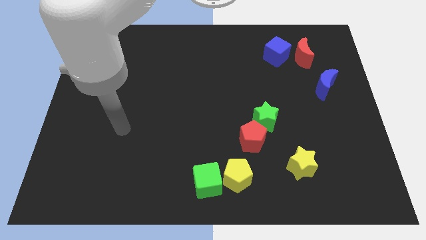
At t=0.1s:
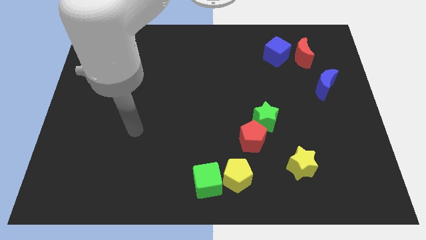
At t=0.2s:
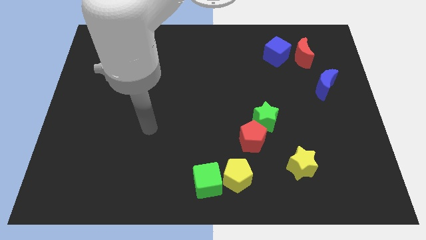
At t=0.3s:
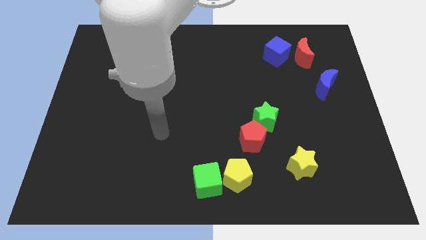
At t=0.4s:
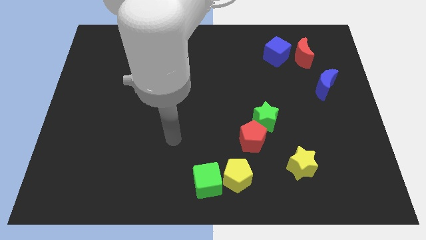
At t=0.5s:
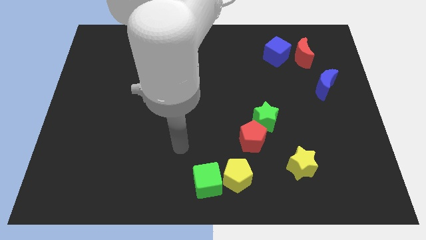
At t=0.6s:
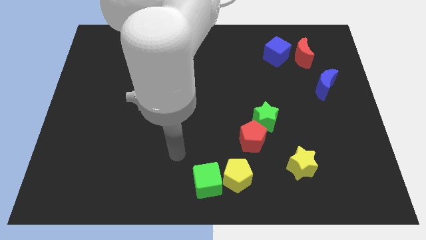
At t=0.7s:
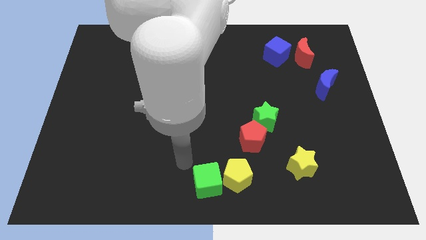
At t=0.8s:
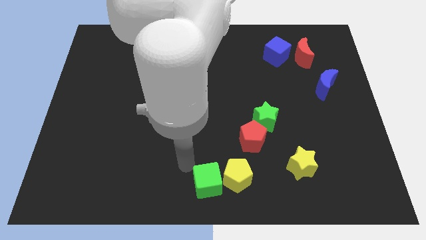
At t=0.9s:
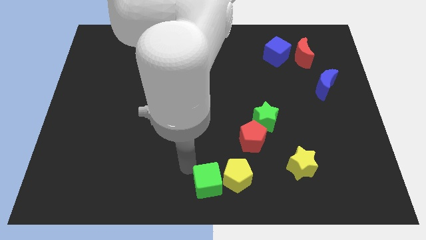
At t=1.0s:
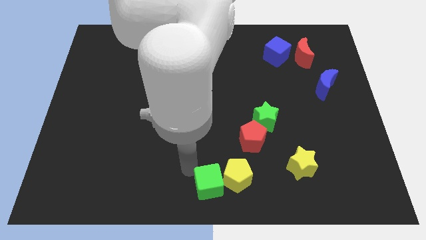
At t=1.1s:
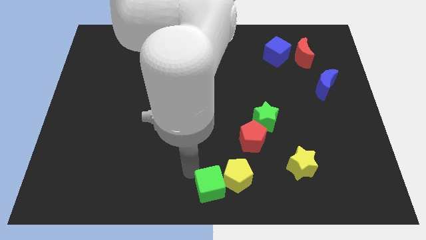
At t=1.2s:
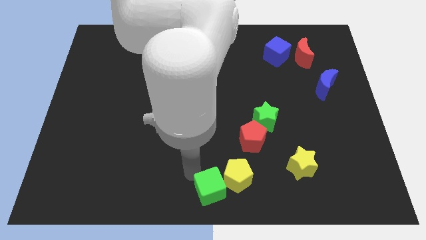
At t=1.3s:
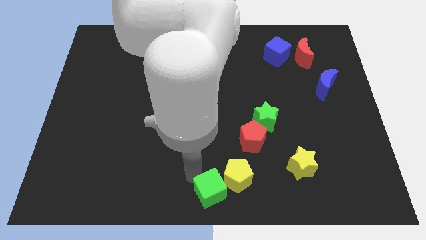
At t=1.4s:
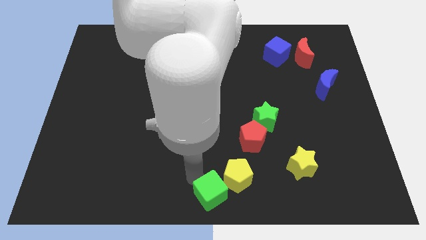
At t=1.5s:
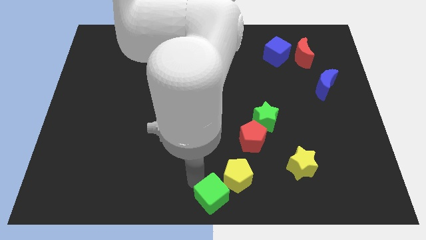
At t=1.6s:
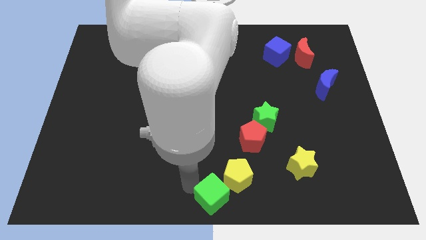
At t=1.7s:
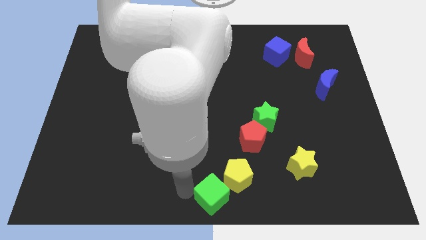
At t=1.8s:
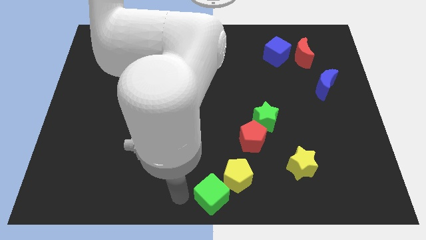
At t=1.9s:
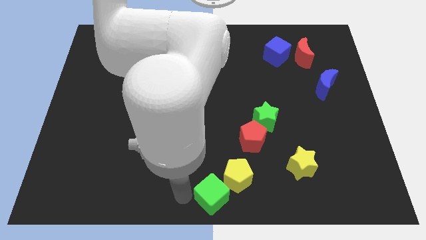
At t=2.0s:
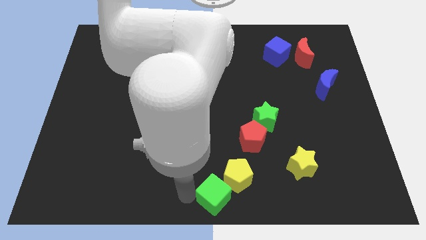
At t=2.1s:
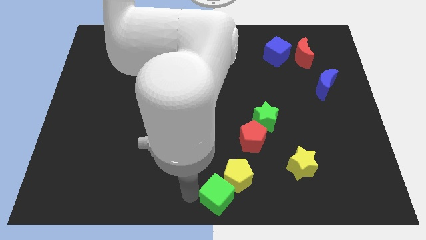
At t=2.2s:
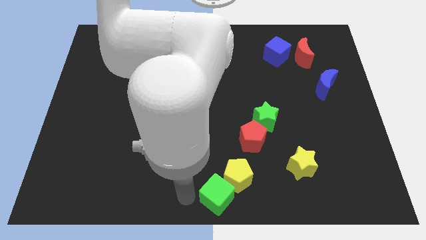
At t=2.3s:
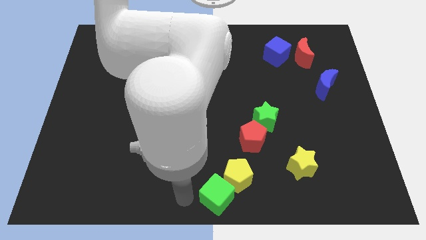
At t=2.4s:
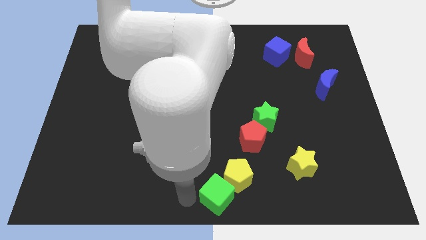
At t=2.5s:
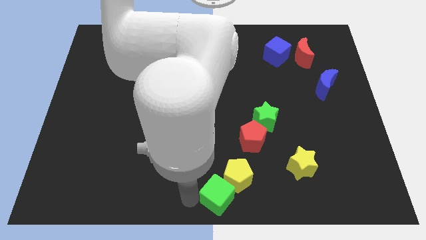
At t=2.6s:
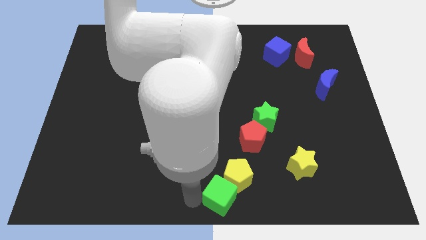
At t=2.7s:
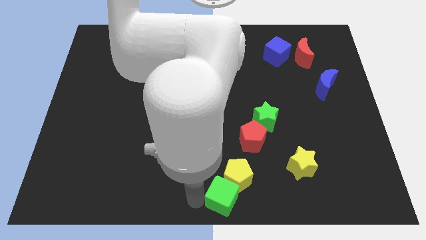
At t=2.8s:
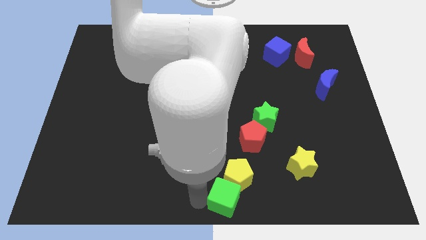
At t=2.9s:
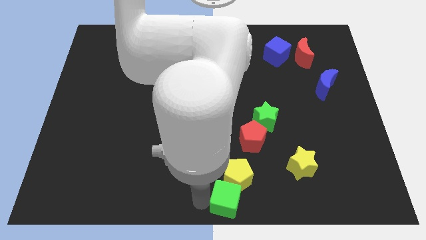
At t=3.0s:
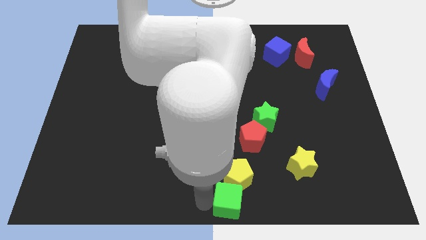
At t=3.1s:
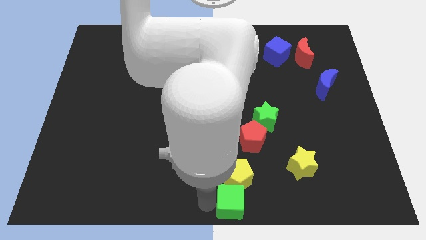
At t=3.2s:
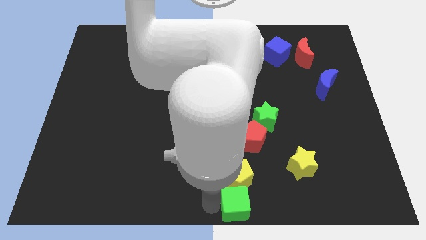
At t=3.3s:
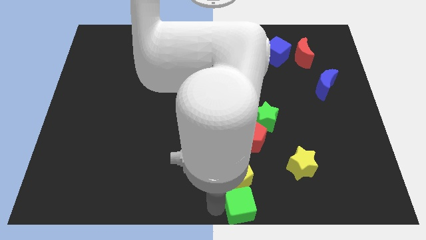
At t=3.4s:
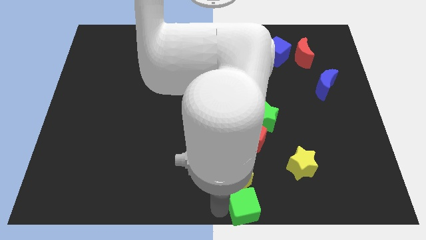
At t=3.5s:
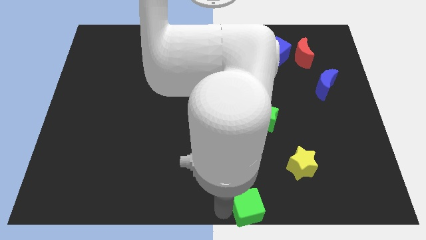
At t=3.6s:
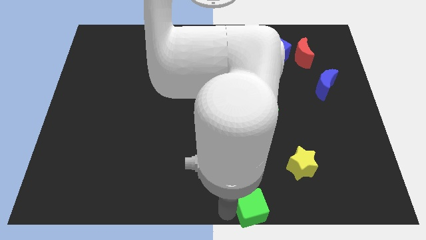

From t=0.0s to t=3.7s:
push the green cube a bit right

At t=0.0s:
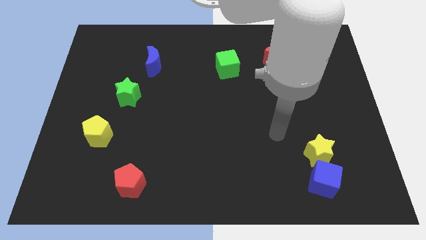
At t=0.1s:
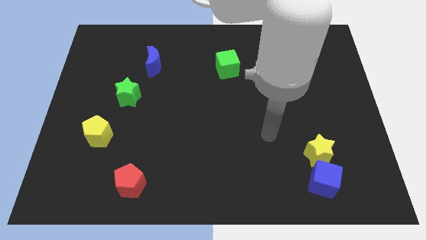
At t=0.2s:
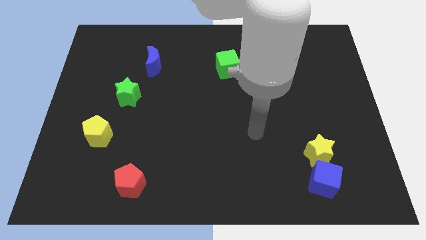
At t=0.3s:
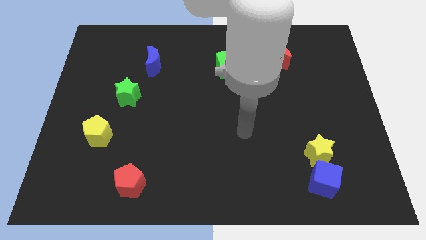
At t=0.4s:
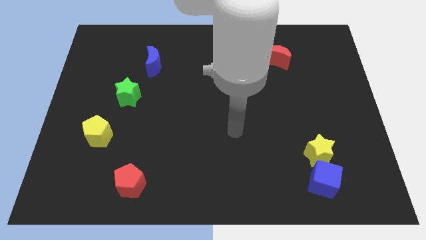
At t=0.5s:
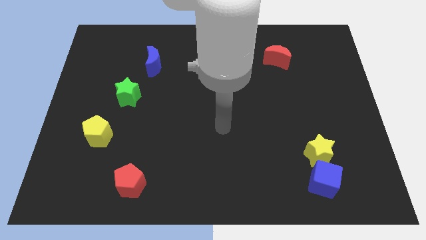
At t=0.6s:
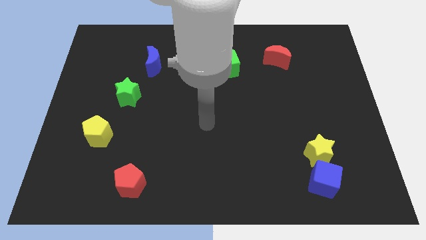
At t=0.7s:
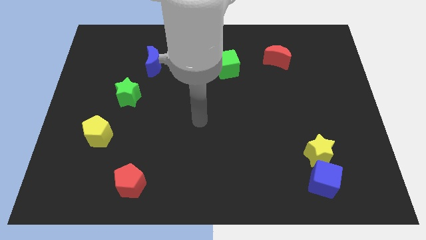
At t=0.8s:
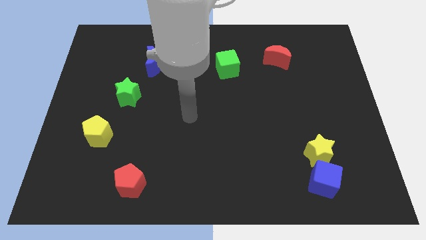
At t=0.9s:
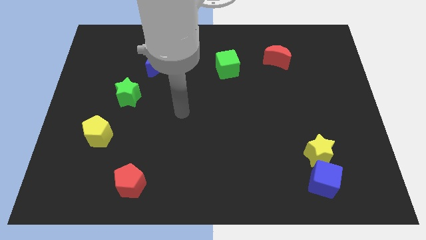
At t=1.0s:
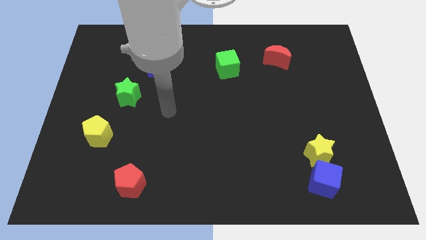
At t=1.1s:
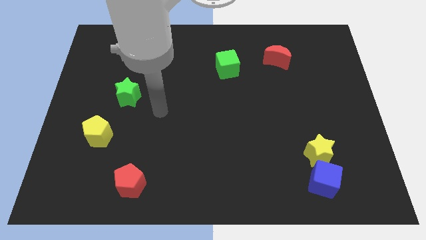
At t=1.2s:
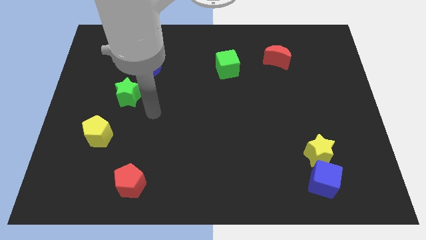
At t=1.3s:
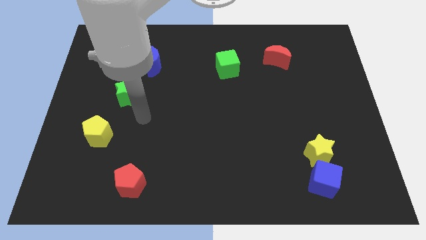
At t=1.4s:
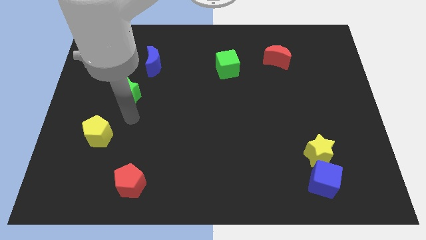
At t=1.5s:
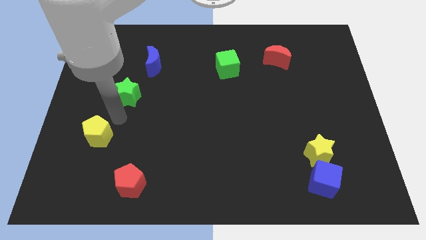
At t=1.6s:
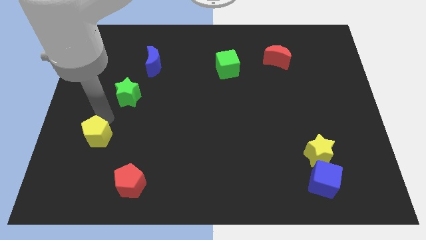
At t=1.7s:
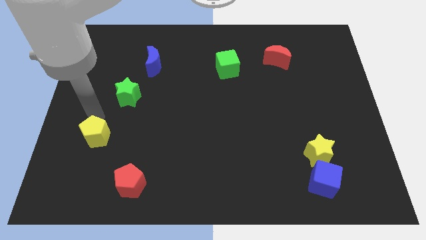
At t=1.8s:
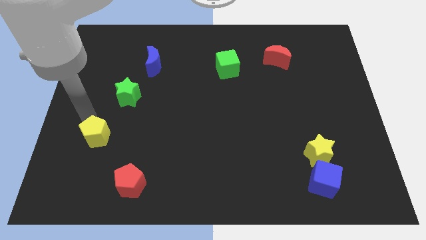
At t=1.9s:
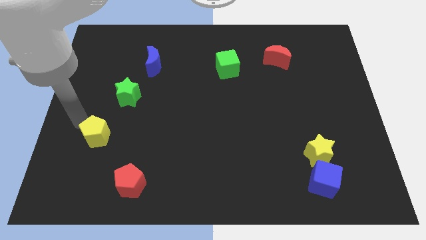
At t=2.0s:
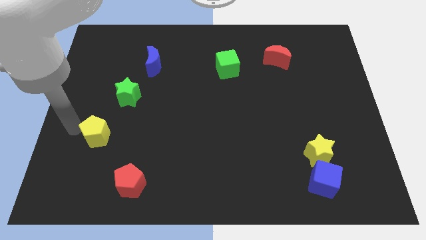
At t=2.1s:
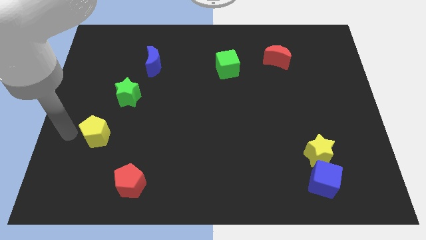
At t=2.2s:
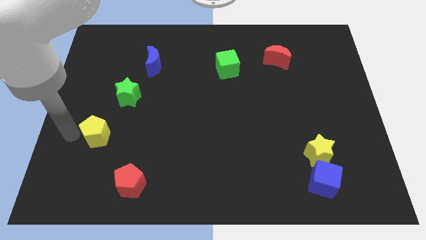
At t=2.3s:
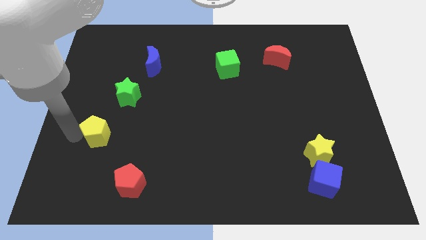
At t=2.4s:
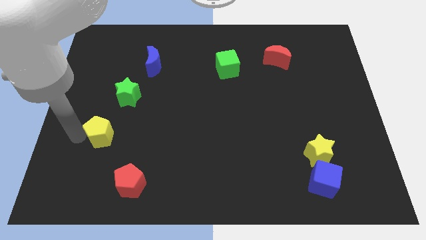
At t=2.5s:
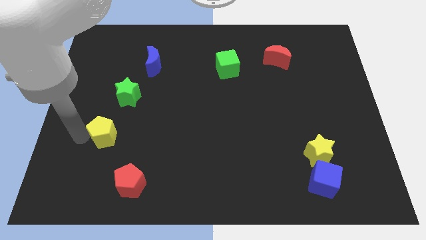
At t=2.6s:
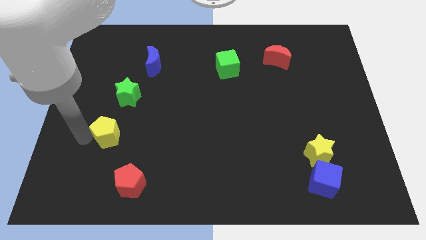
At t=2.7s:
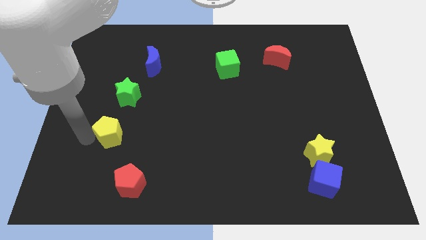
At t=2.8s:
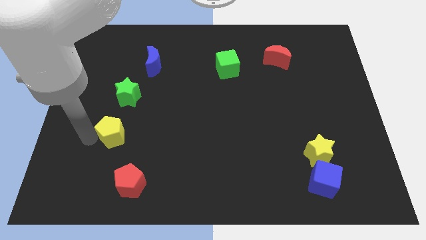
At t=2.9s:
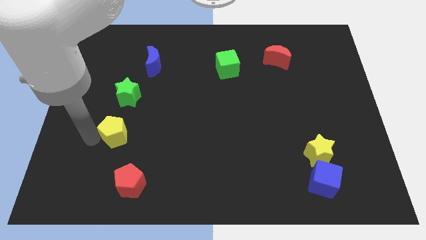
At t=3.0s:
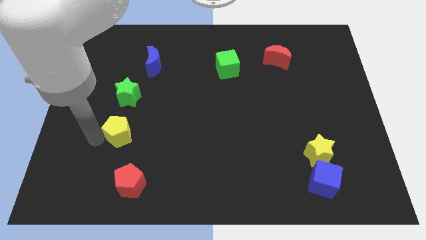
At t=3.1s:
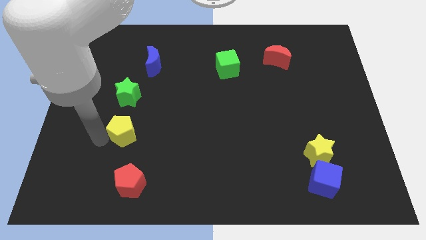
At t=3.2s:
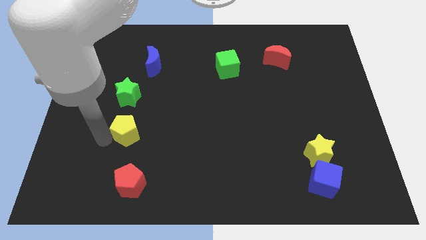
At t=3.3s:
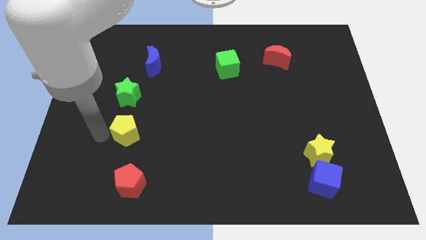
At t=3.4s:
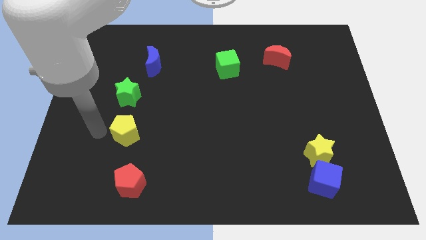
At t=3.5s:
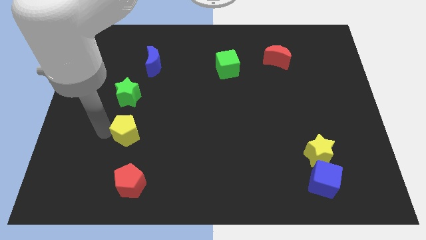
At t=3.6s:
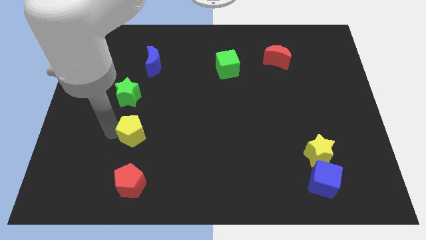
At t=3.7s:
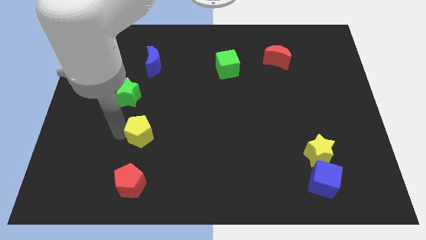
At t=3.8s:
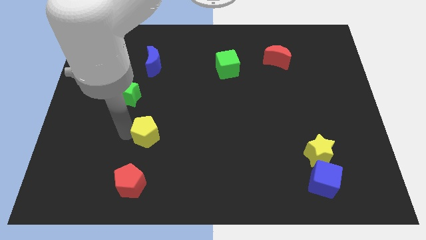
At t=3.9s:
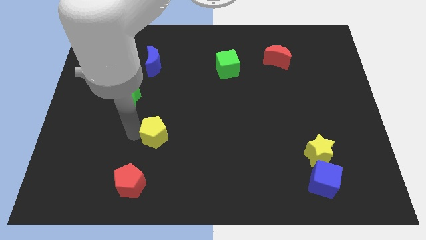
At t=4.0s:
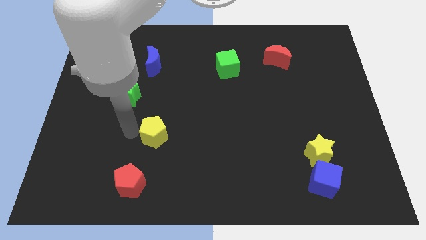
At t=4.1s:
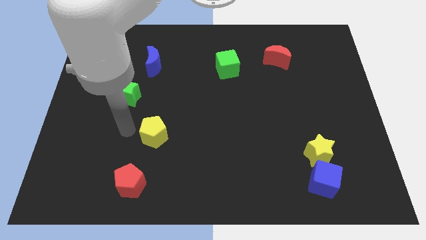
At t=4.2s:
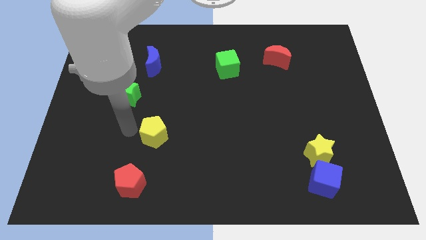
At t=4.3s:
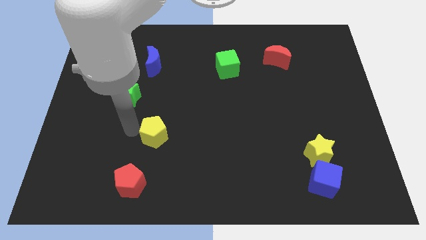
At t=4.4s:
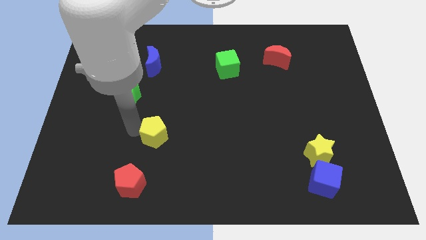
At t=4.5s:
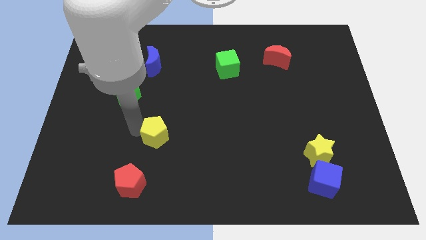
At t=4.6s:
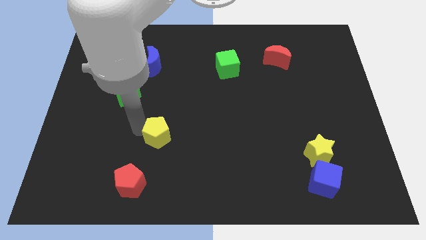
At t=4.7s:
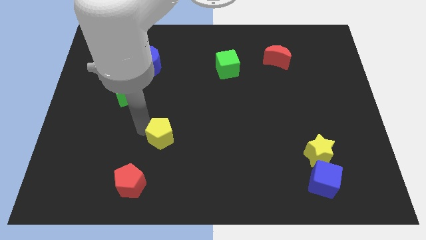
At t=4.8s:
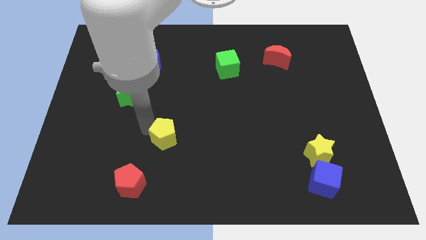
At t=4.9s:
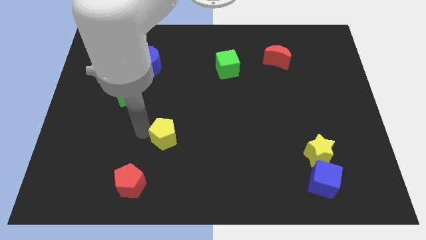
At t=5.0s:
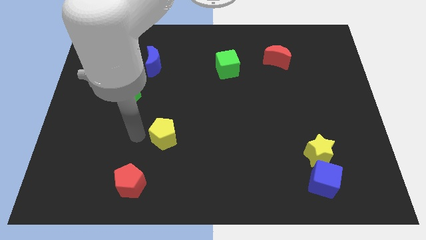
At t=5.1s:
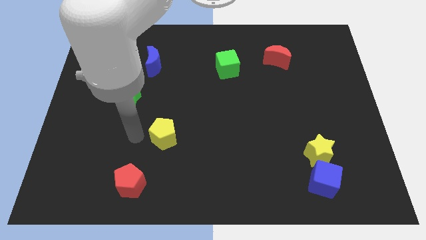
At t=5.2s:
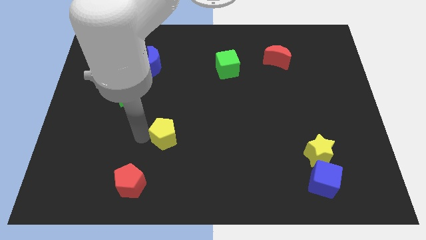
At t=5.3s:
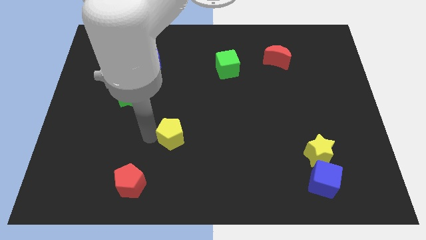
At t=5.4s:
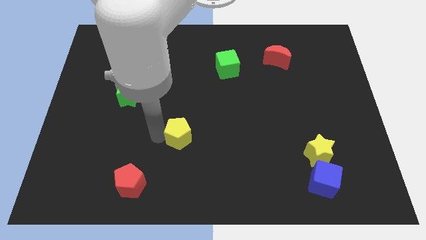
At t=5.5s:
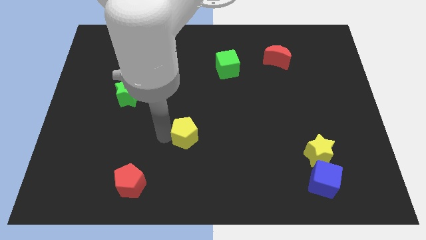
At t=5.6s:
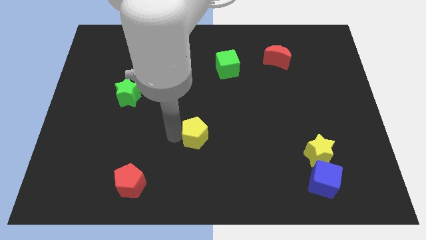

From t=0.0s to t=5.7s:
push the yellow pentagon right
